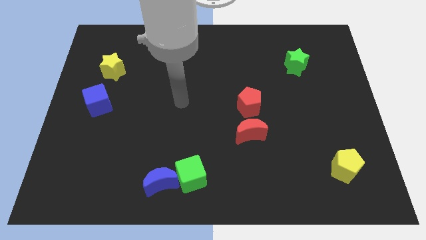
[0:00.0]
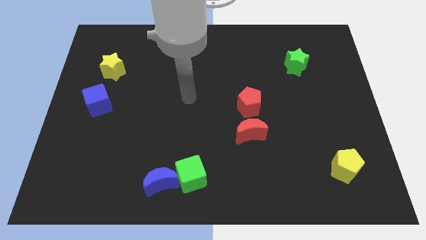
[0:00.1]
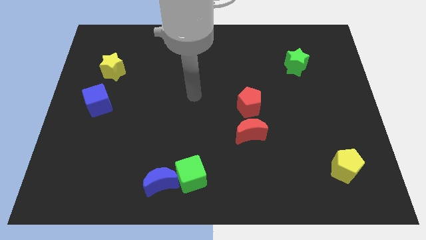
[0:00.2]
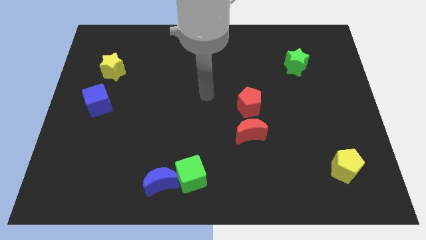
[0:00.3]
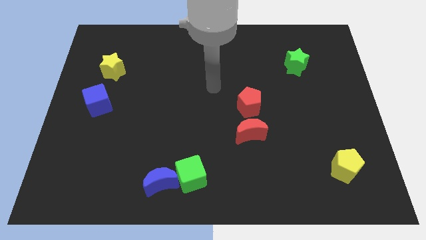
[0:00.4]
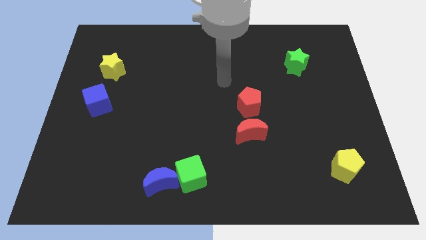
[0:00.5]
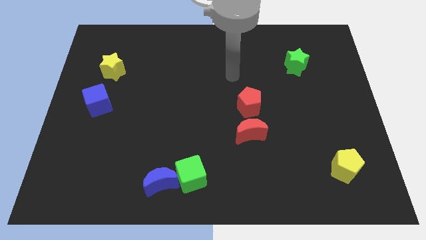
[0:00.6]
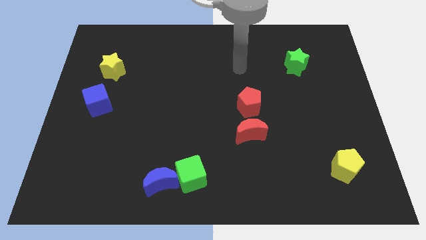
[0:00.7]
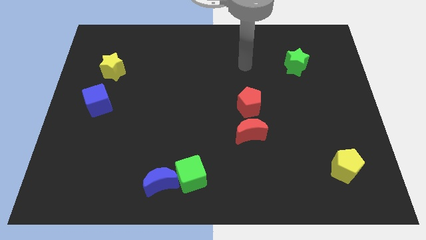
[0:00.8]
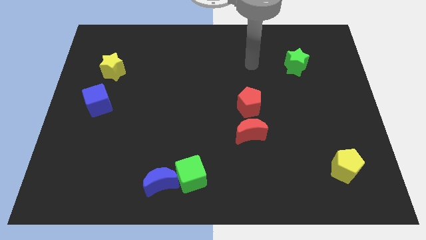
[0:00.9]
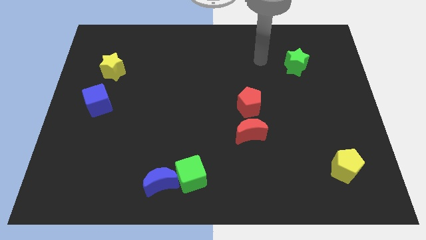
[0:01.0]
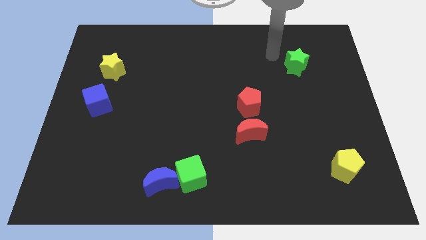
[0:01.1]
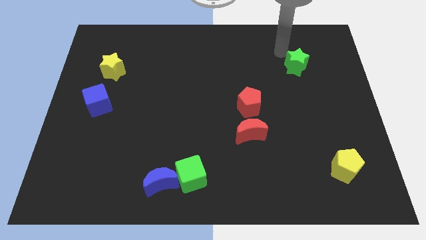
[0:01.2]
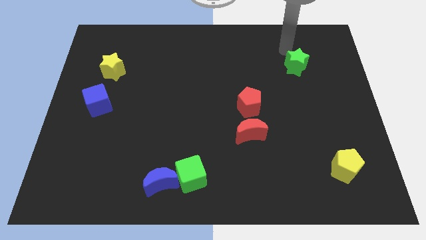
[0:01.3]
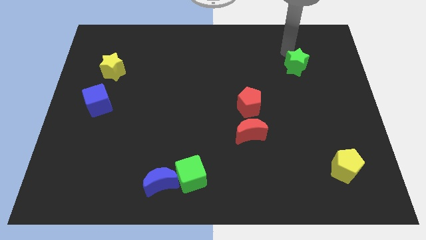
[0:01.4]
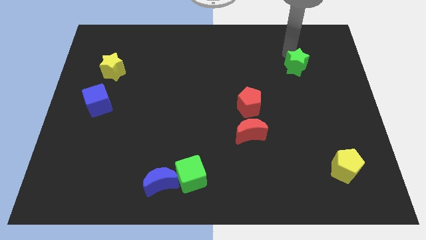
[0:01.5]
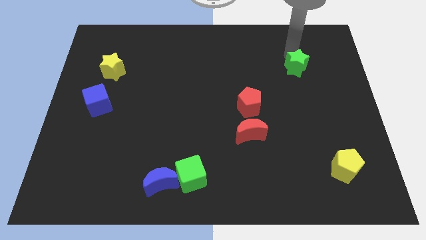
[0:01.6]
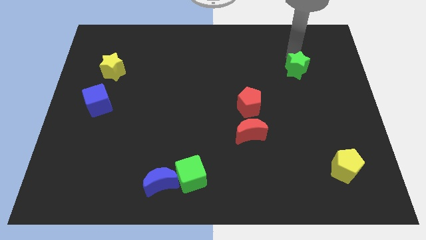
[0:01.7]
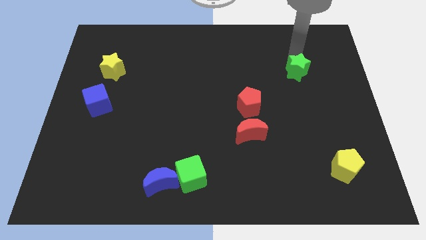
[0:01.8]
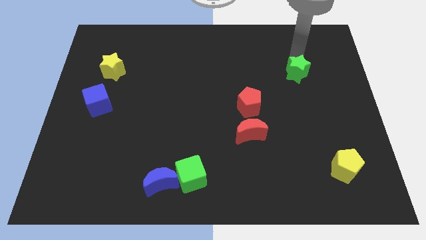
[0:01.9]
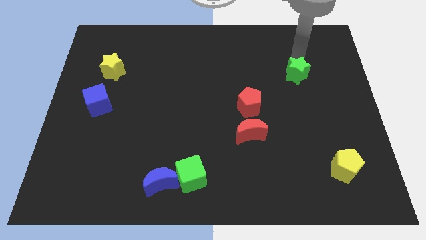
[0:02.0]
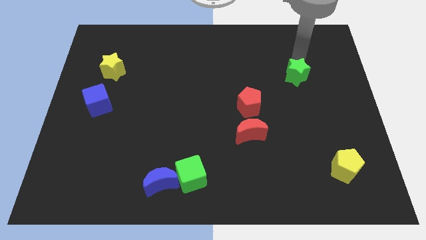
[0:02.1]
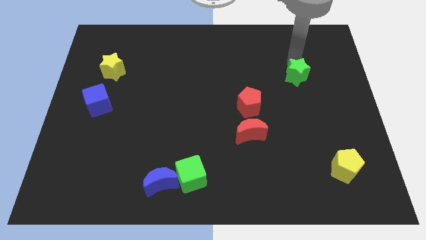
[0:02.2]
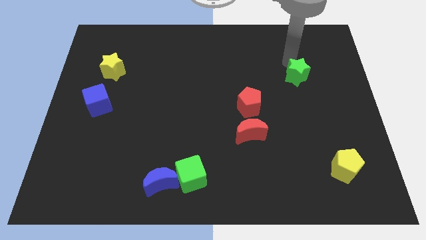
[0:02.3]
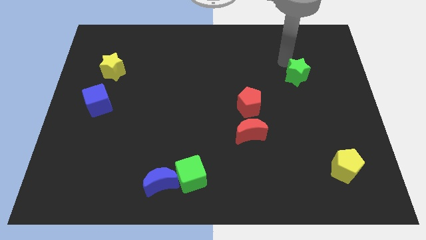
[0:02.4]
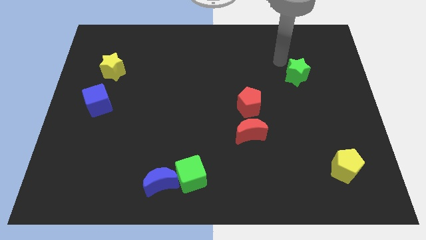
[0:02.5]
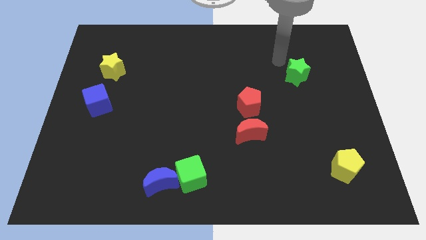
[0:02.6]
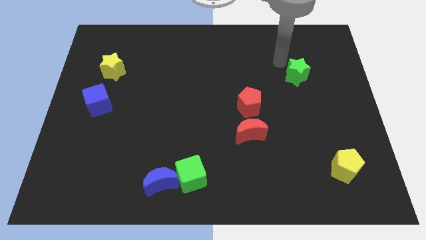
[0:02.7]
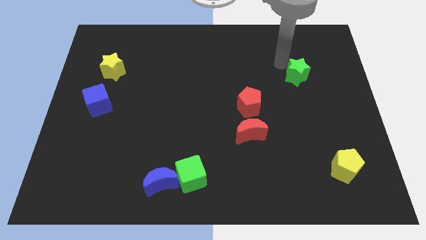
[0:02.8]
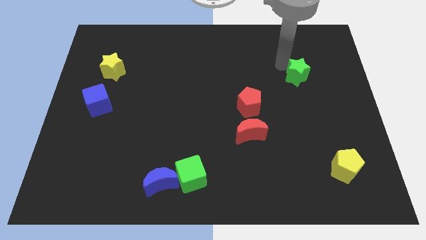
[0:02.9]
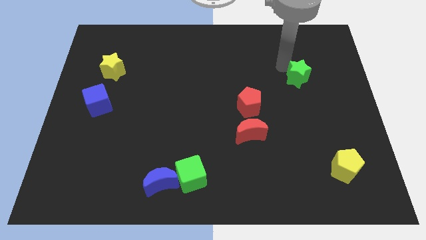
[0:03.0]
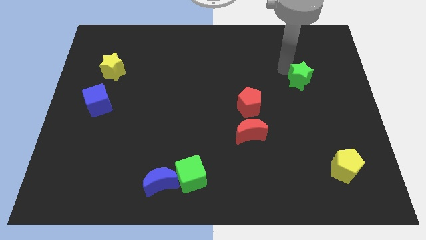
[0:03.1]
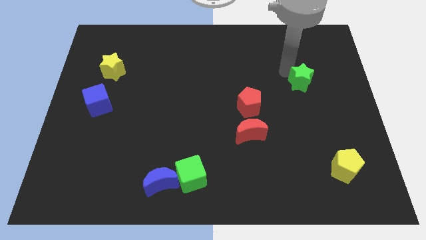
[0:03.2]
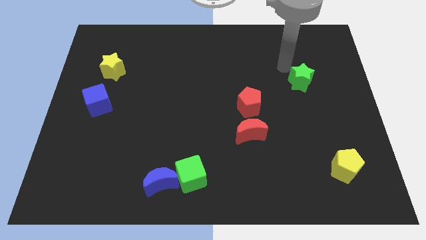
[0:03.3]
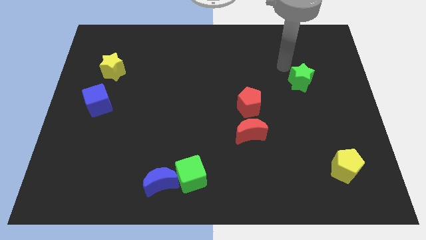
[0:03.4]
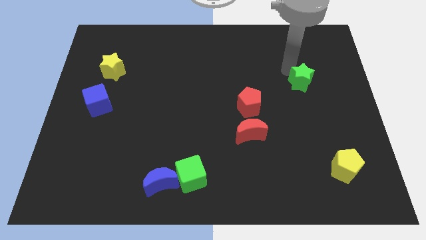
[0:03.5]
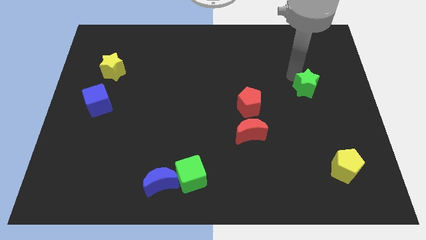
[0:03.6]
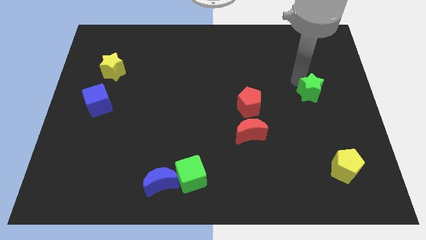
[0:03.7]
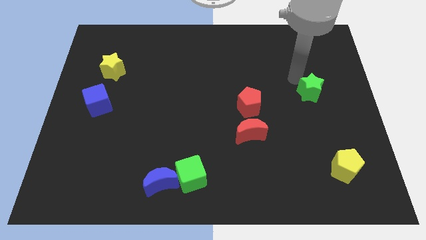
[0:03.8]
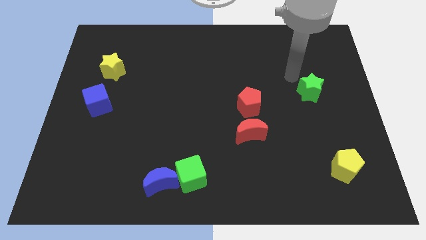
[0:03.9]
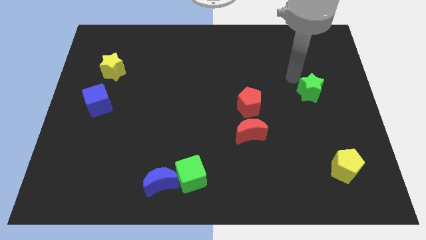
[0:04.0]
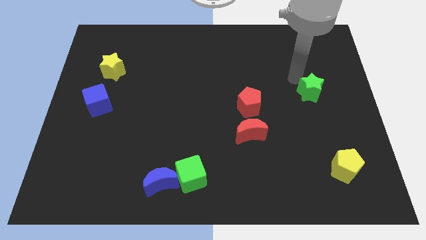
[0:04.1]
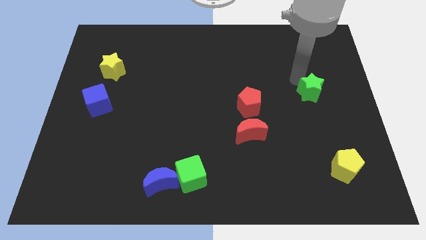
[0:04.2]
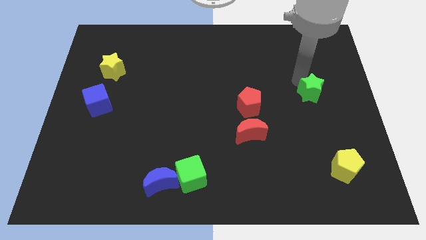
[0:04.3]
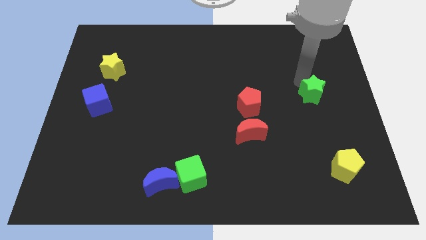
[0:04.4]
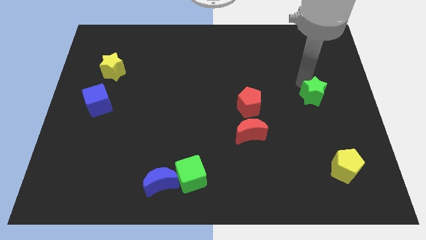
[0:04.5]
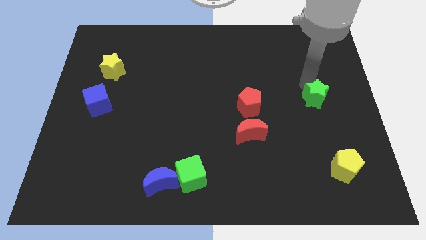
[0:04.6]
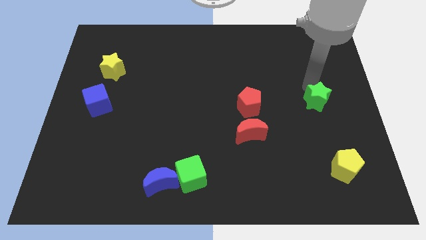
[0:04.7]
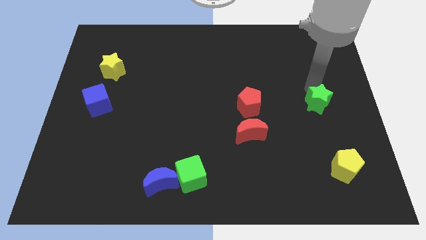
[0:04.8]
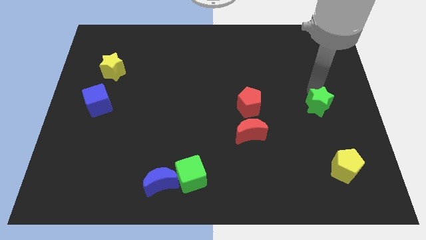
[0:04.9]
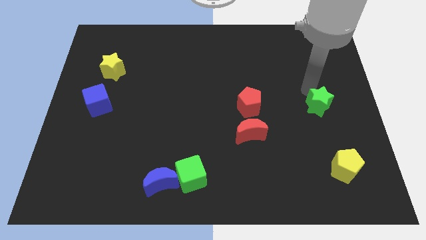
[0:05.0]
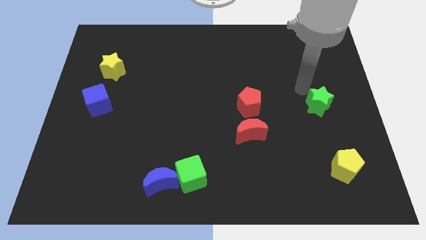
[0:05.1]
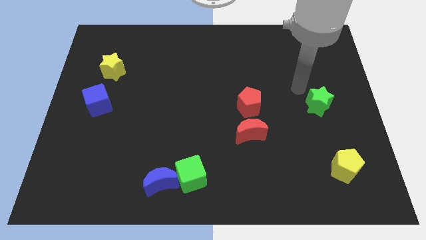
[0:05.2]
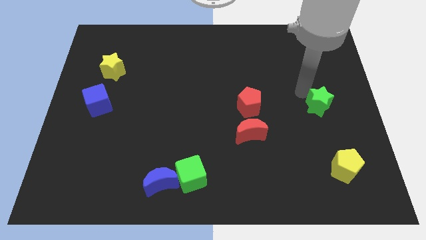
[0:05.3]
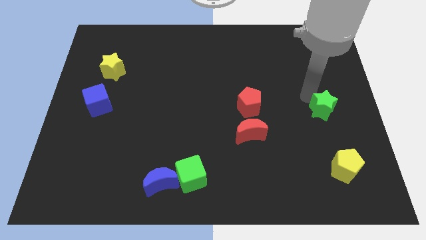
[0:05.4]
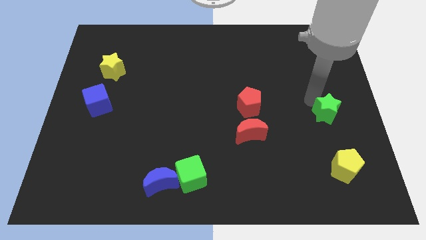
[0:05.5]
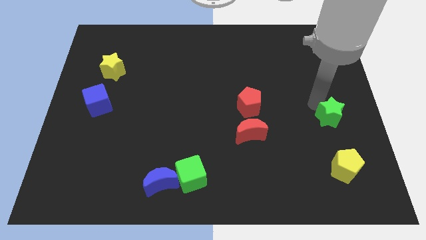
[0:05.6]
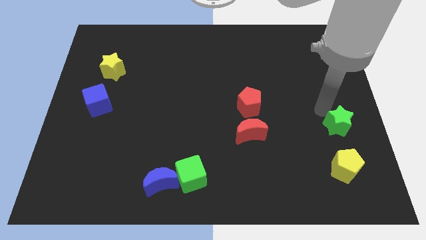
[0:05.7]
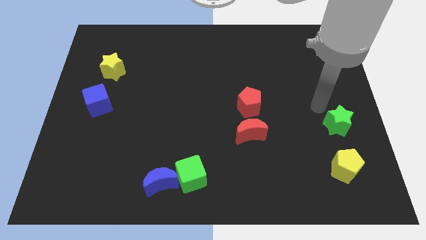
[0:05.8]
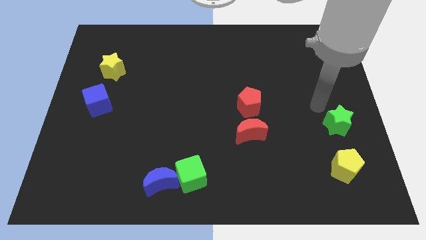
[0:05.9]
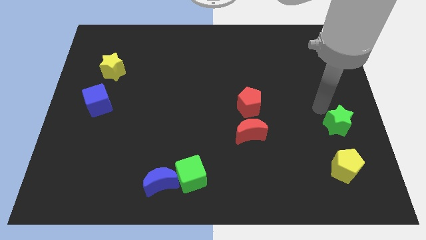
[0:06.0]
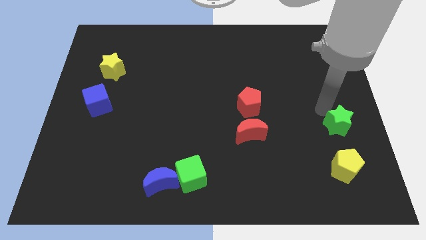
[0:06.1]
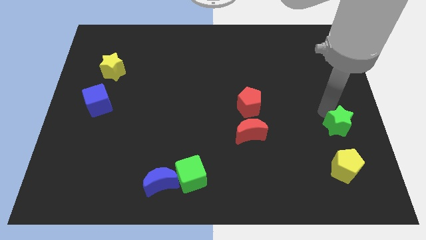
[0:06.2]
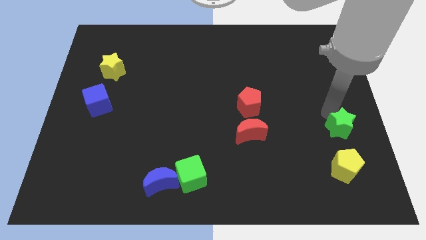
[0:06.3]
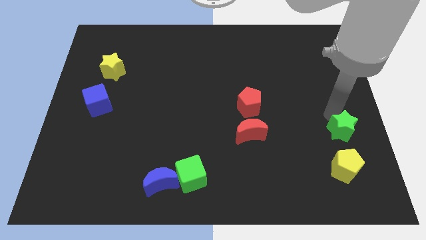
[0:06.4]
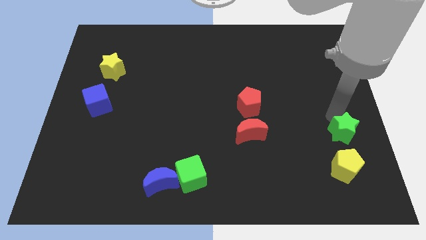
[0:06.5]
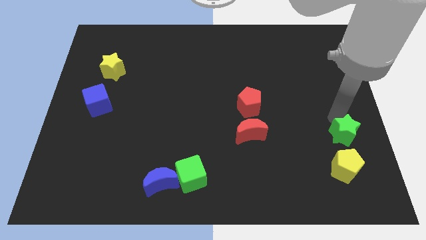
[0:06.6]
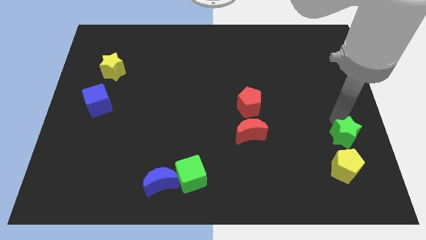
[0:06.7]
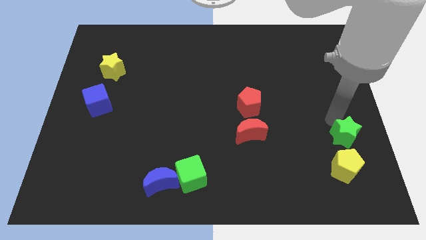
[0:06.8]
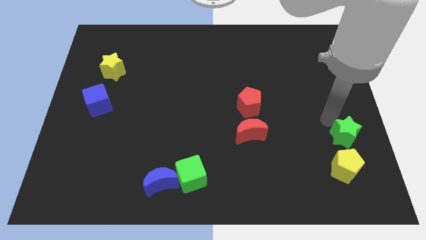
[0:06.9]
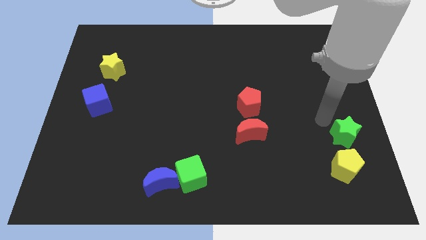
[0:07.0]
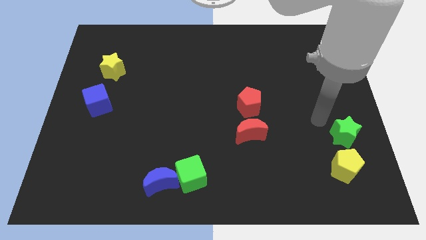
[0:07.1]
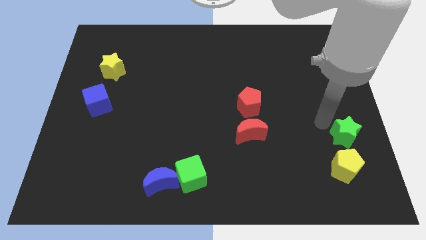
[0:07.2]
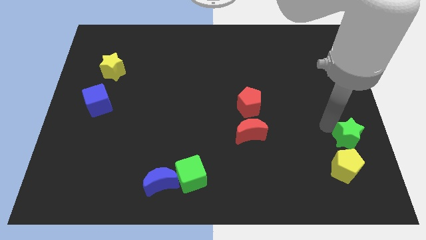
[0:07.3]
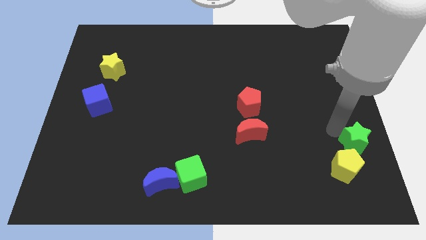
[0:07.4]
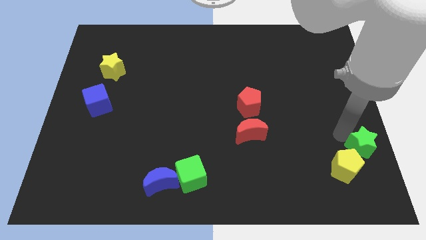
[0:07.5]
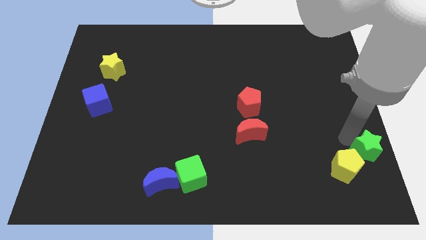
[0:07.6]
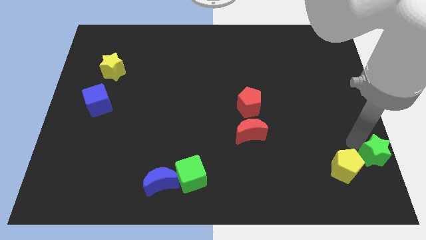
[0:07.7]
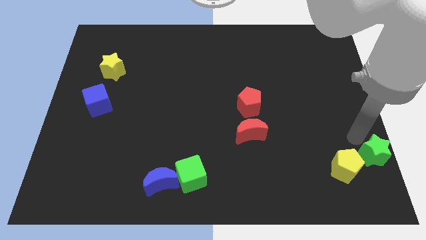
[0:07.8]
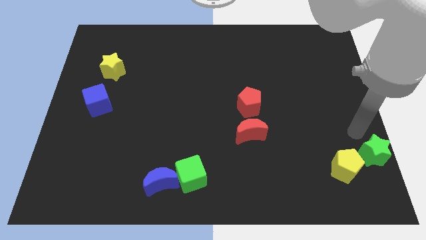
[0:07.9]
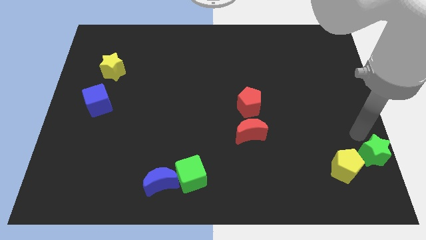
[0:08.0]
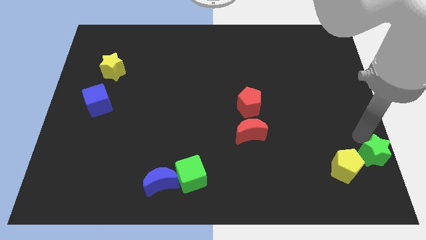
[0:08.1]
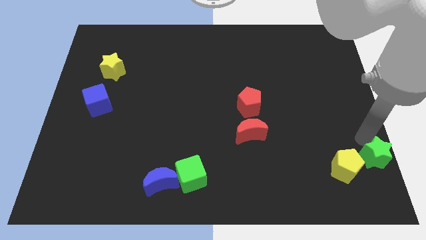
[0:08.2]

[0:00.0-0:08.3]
put the green star to the bottom right of the board
